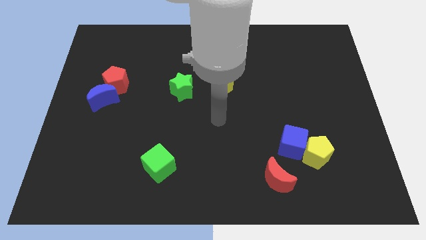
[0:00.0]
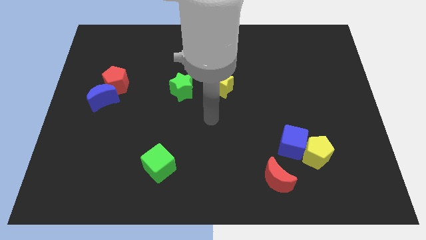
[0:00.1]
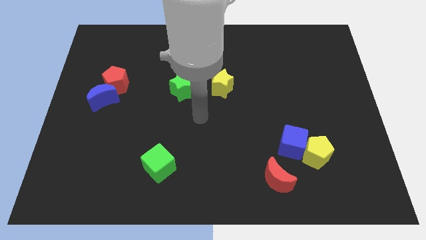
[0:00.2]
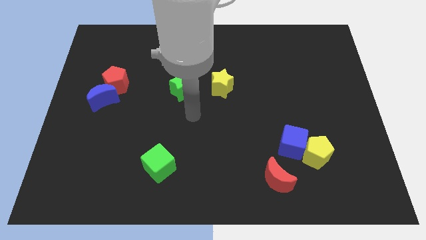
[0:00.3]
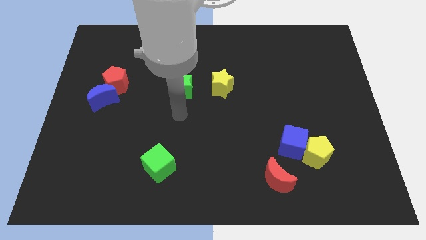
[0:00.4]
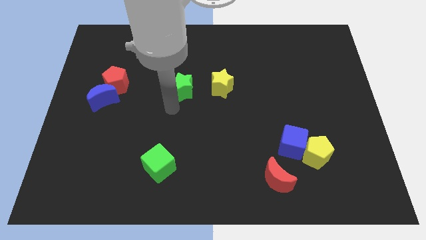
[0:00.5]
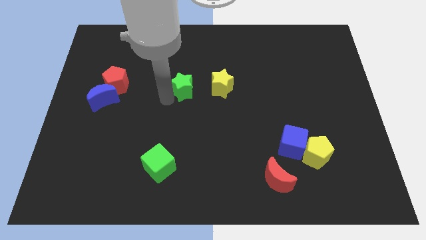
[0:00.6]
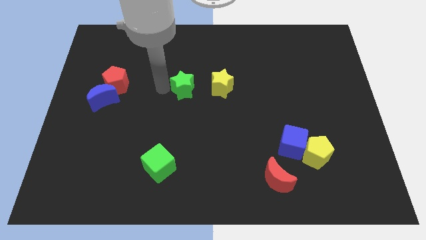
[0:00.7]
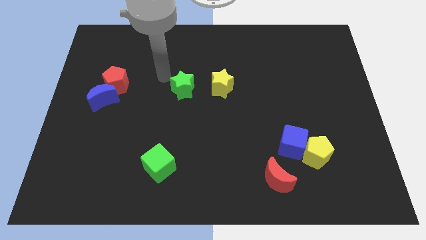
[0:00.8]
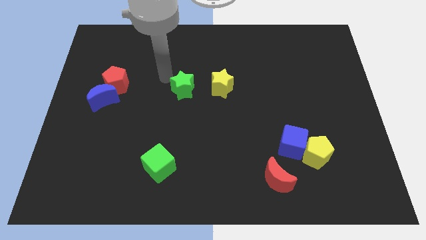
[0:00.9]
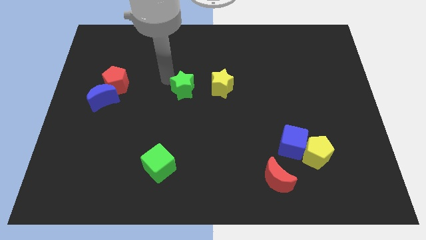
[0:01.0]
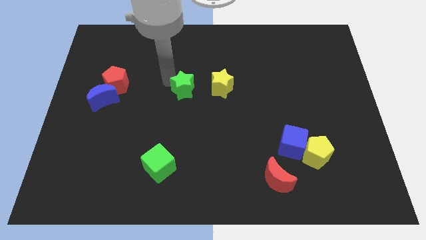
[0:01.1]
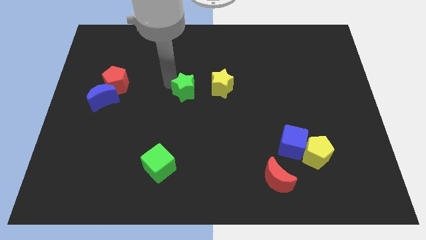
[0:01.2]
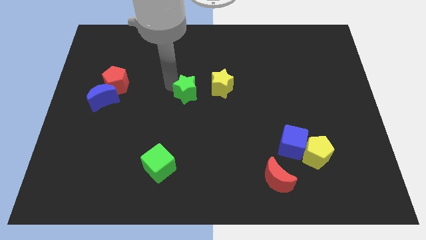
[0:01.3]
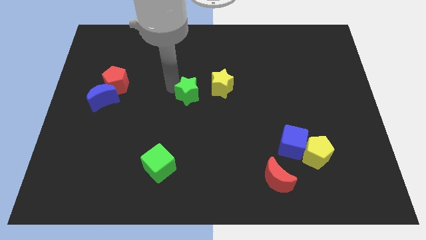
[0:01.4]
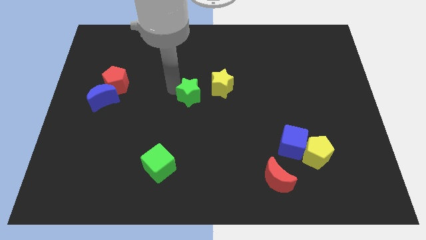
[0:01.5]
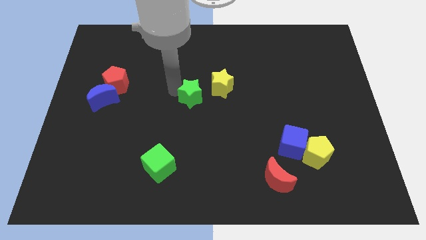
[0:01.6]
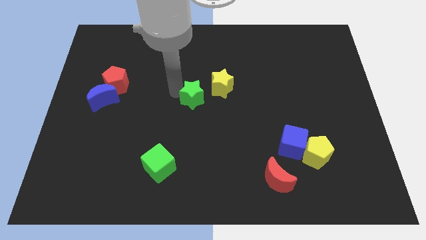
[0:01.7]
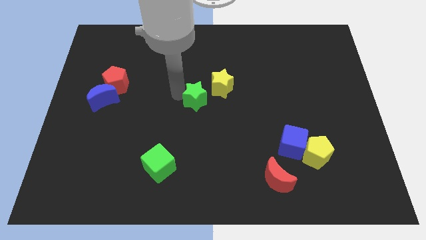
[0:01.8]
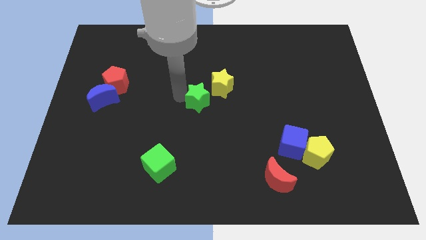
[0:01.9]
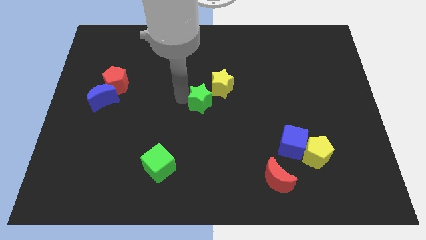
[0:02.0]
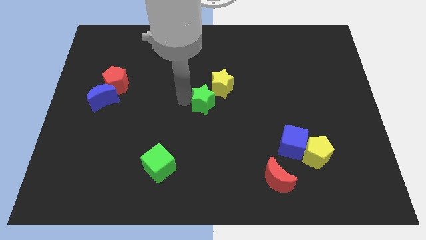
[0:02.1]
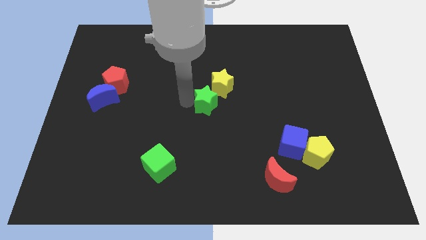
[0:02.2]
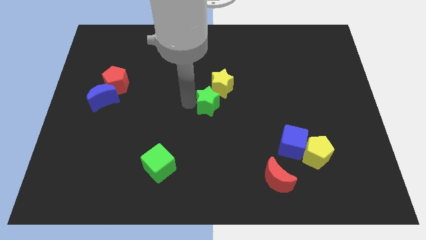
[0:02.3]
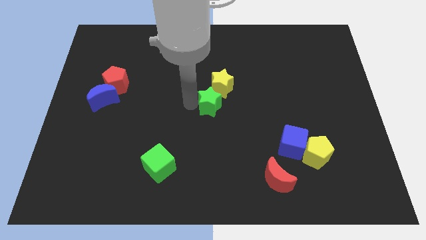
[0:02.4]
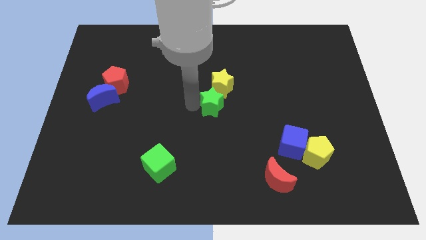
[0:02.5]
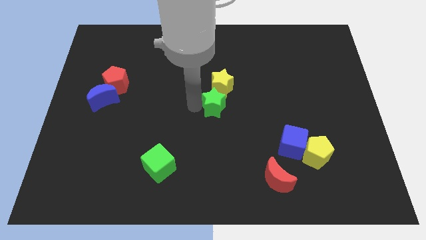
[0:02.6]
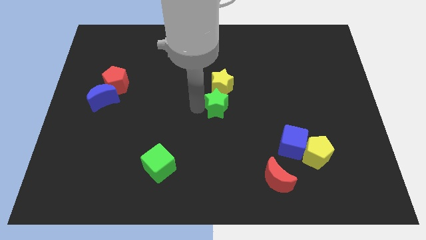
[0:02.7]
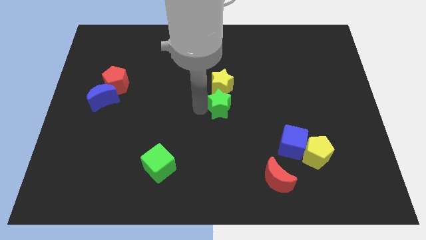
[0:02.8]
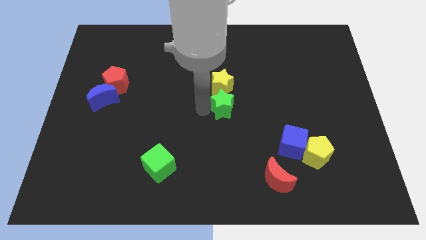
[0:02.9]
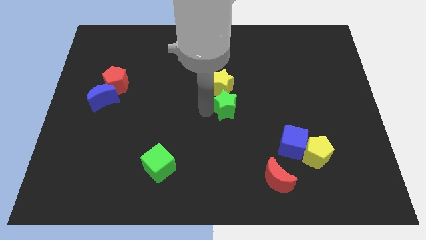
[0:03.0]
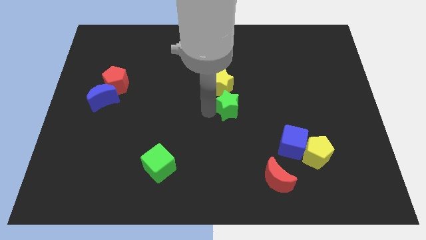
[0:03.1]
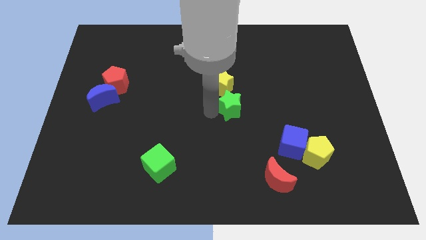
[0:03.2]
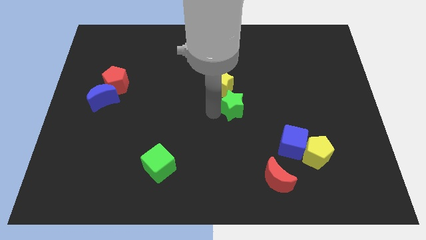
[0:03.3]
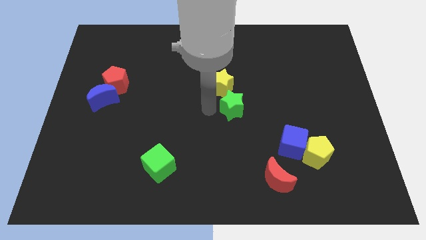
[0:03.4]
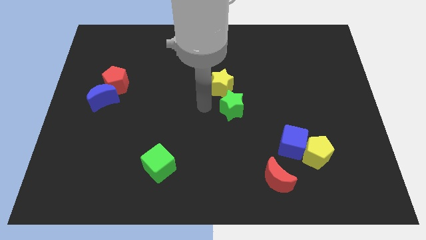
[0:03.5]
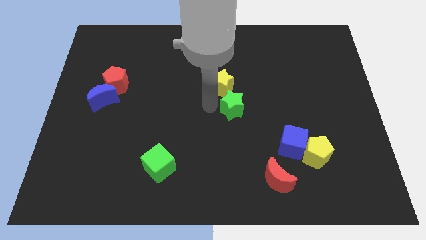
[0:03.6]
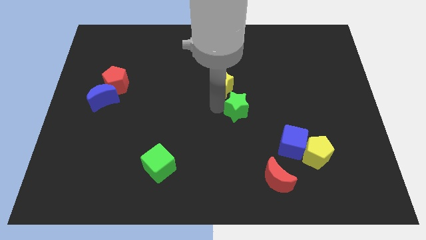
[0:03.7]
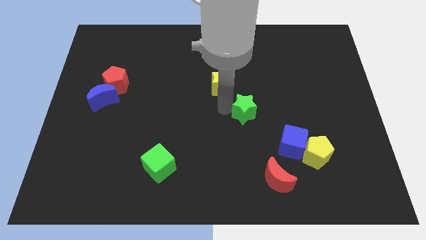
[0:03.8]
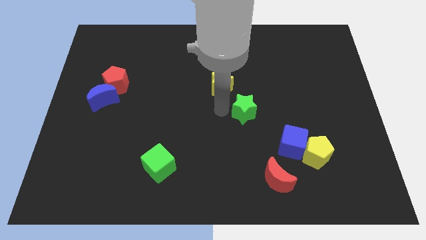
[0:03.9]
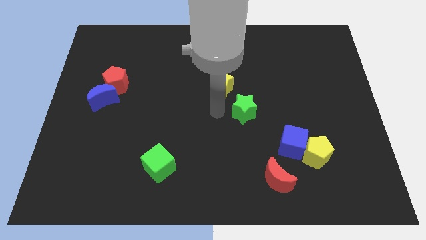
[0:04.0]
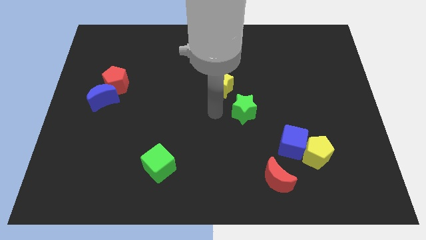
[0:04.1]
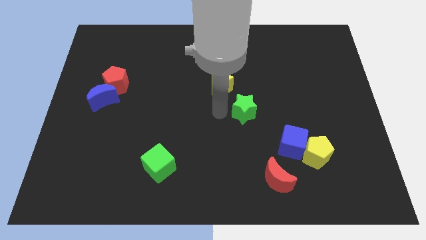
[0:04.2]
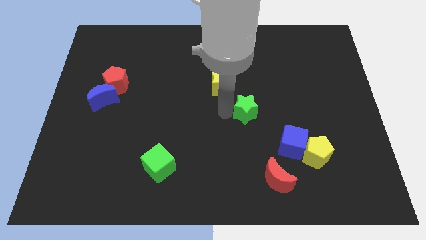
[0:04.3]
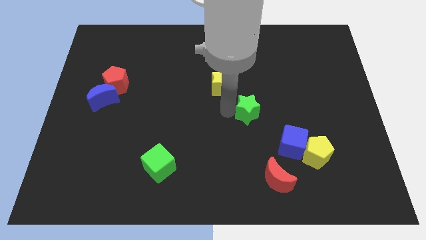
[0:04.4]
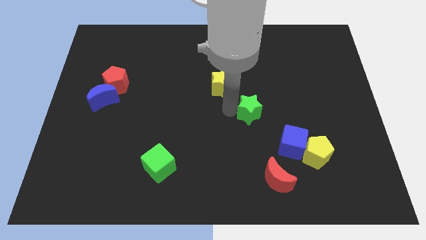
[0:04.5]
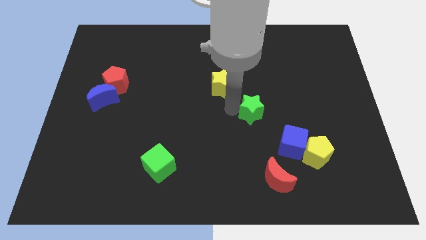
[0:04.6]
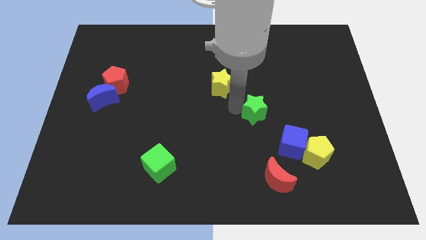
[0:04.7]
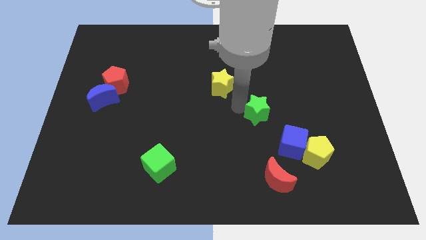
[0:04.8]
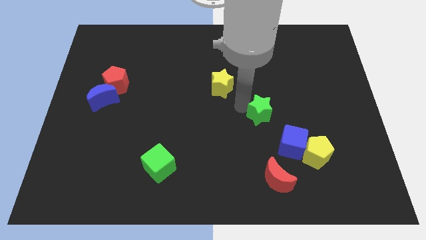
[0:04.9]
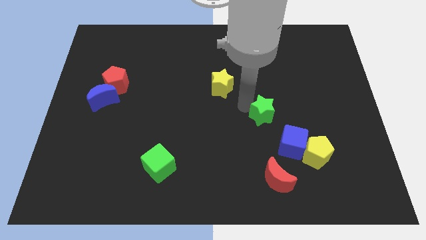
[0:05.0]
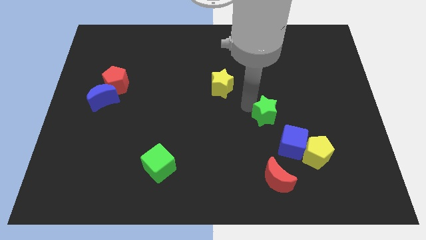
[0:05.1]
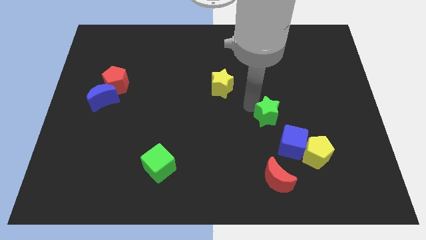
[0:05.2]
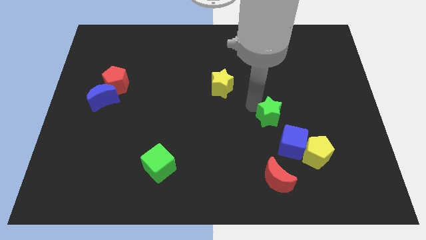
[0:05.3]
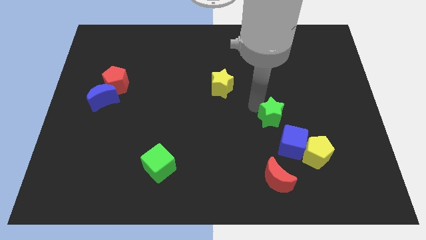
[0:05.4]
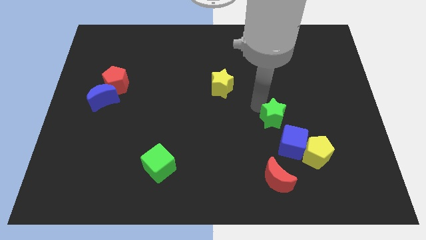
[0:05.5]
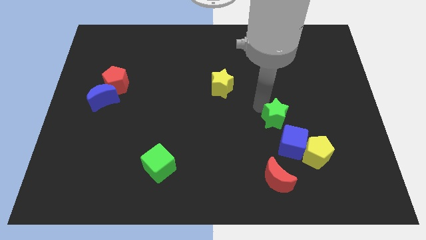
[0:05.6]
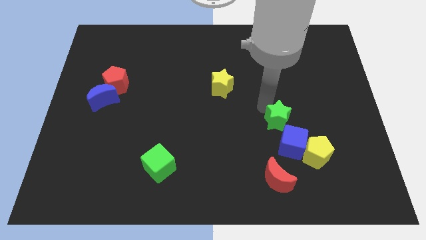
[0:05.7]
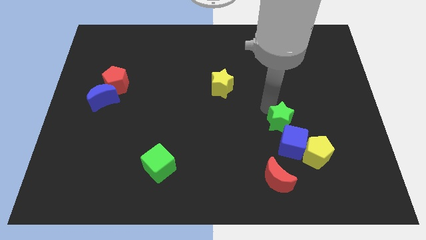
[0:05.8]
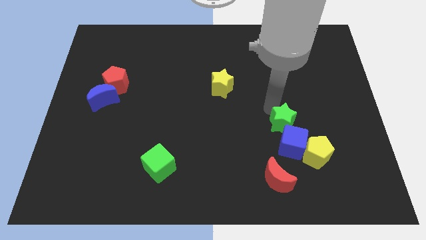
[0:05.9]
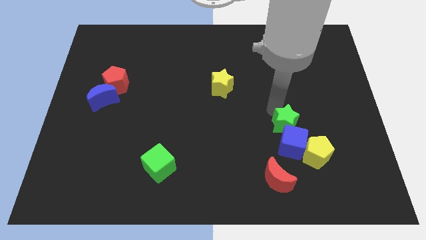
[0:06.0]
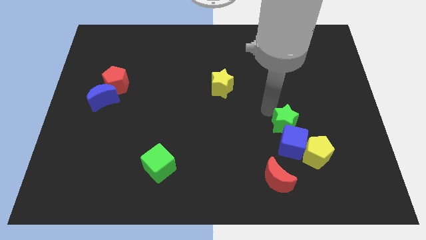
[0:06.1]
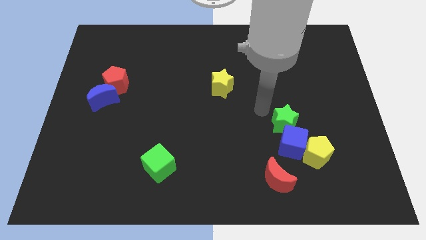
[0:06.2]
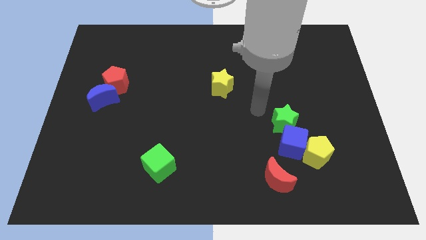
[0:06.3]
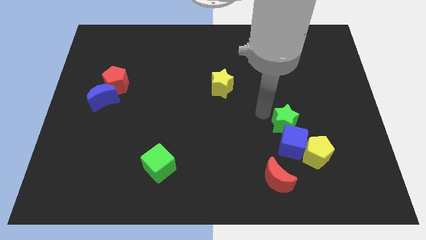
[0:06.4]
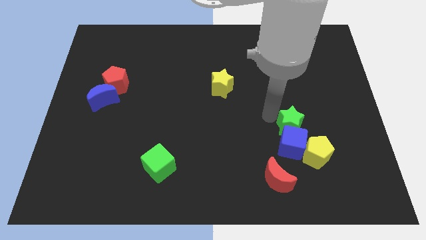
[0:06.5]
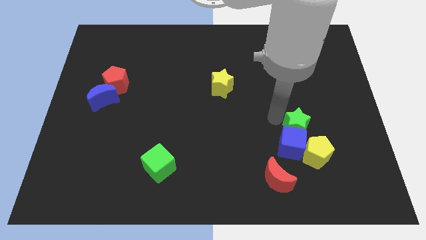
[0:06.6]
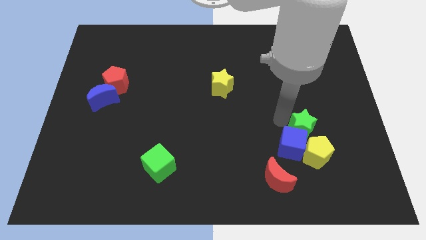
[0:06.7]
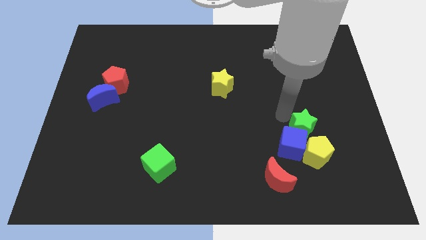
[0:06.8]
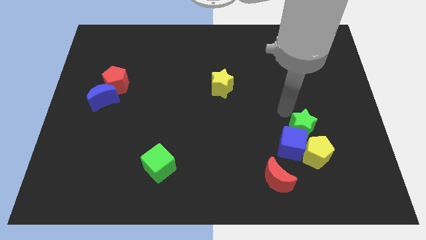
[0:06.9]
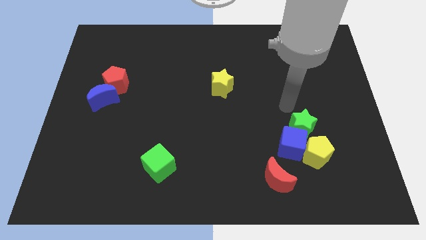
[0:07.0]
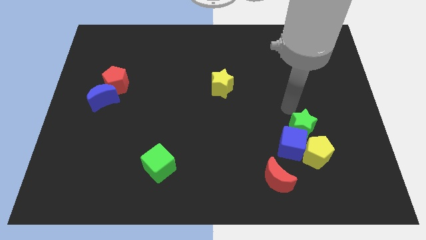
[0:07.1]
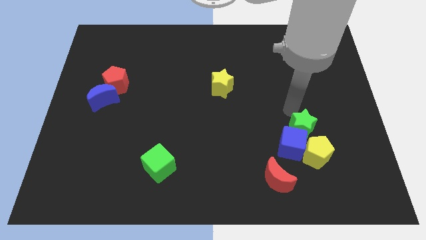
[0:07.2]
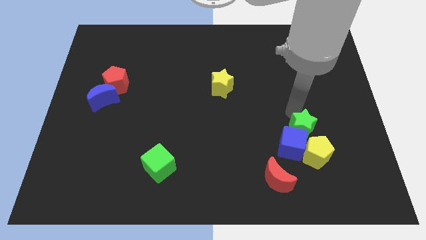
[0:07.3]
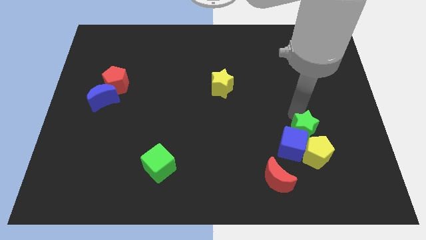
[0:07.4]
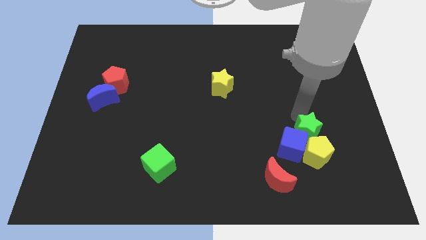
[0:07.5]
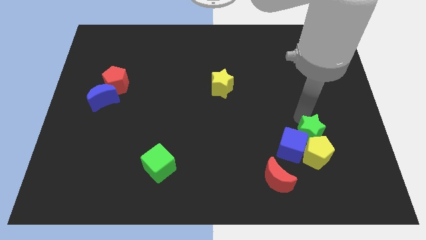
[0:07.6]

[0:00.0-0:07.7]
slide the green star close to the yellow pentagon
